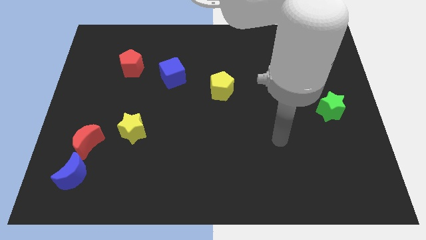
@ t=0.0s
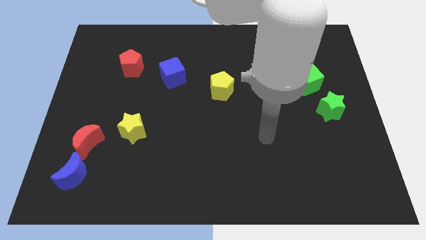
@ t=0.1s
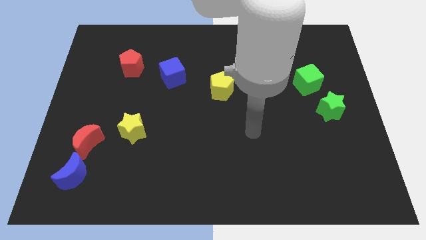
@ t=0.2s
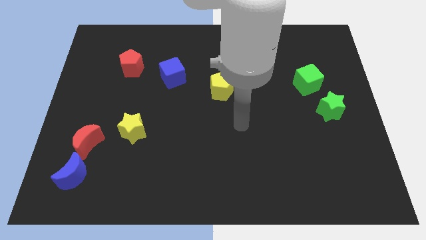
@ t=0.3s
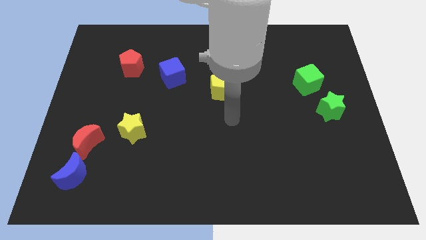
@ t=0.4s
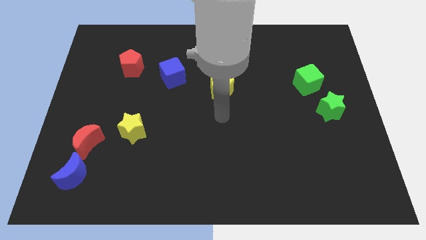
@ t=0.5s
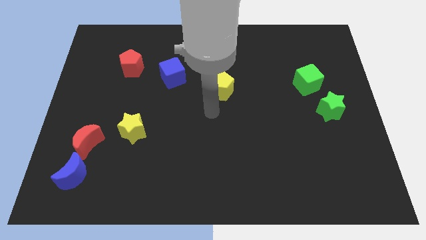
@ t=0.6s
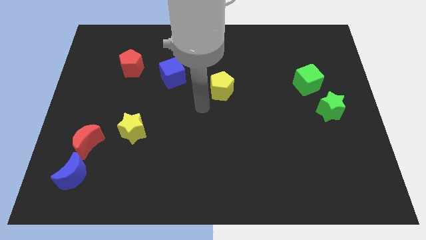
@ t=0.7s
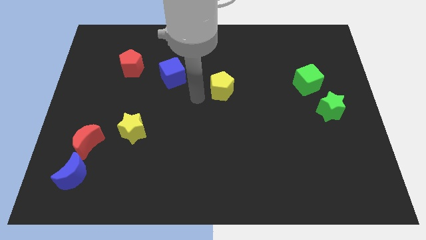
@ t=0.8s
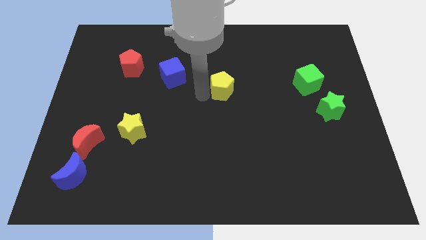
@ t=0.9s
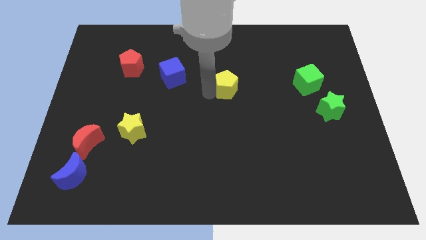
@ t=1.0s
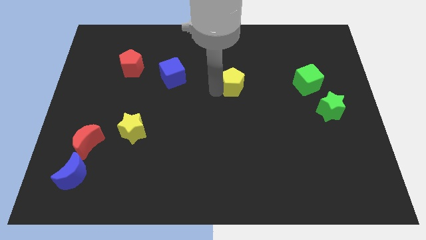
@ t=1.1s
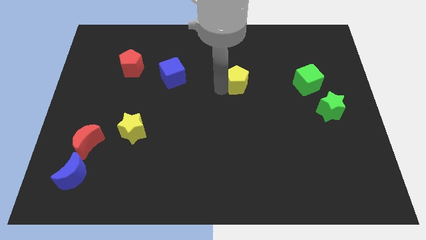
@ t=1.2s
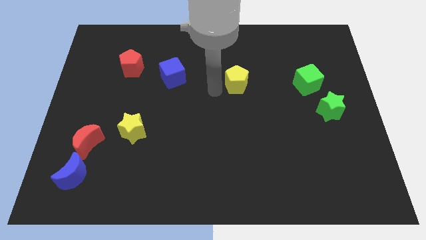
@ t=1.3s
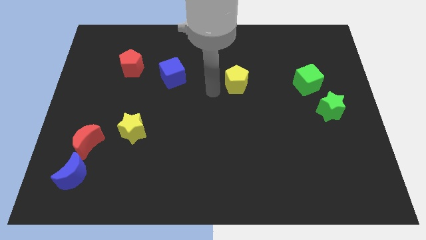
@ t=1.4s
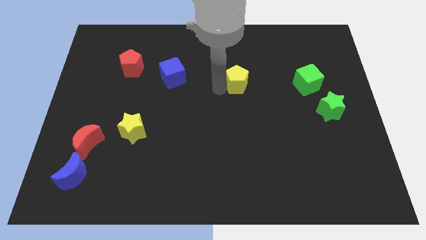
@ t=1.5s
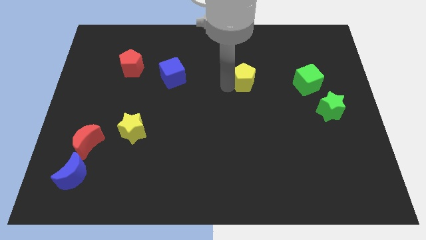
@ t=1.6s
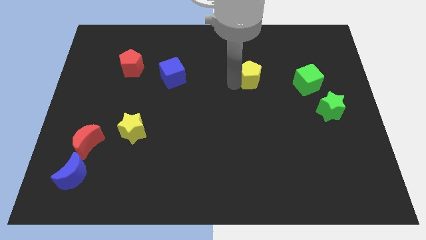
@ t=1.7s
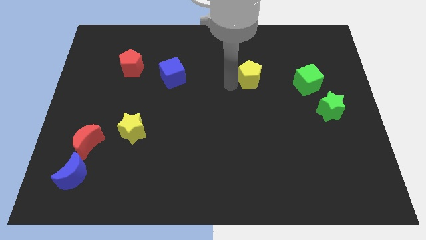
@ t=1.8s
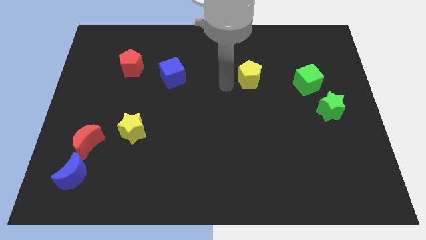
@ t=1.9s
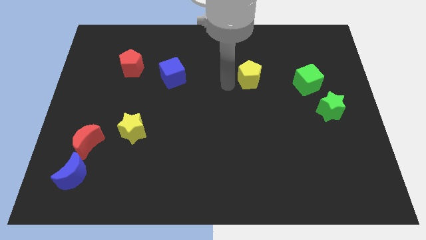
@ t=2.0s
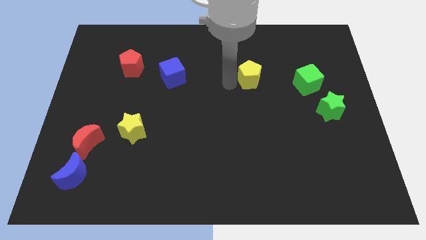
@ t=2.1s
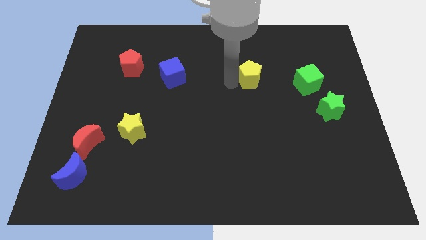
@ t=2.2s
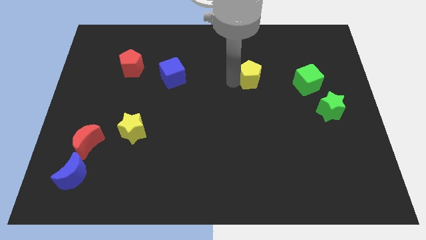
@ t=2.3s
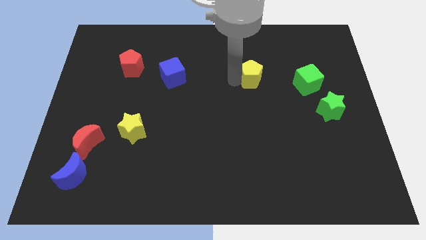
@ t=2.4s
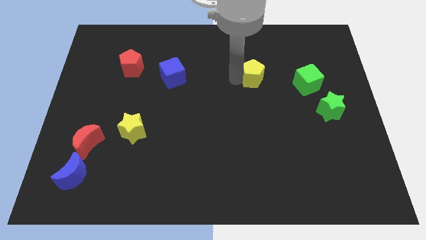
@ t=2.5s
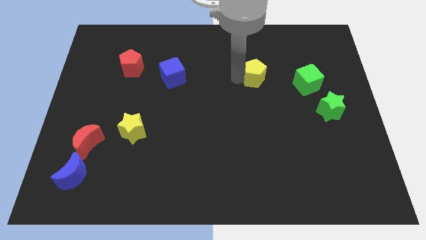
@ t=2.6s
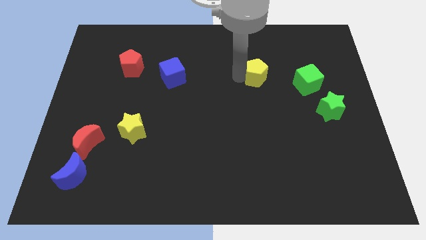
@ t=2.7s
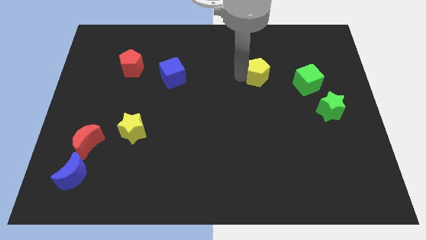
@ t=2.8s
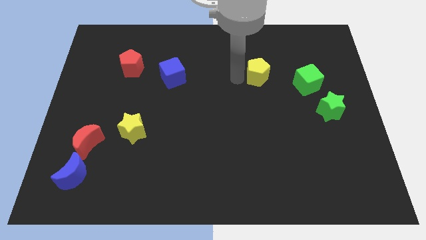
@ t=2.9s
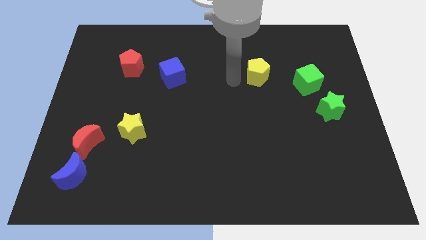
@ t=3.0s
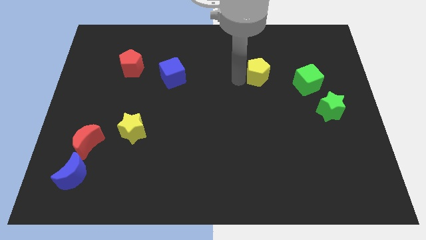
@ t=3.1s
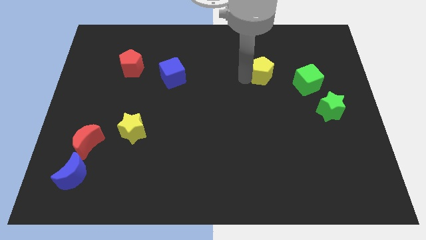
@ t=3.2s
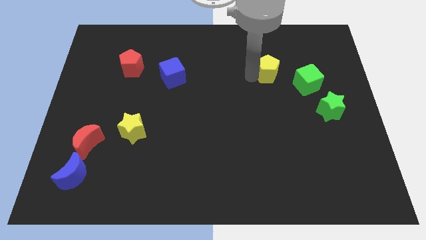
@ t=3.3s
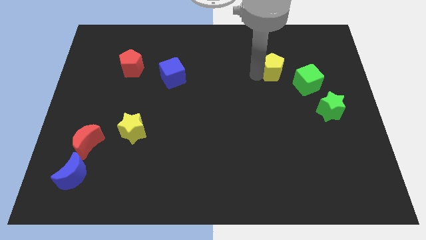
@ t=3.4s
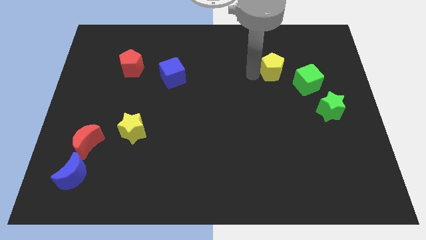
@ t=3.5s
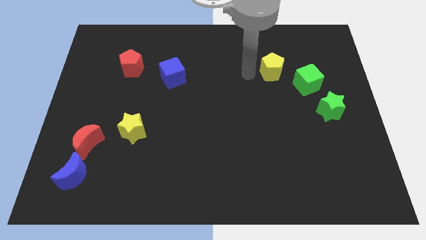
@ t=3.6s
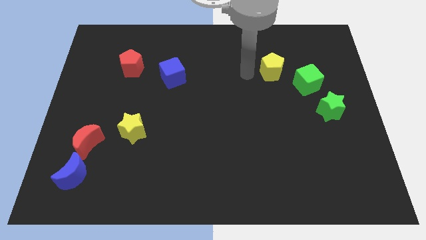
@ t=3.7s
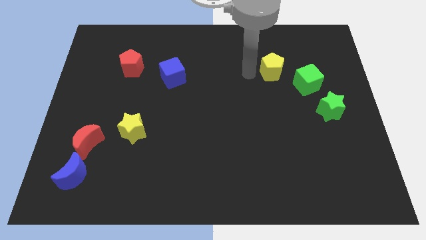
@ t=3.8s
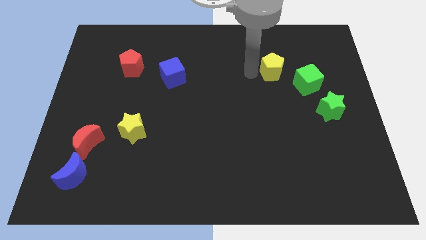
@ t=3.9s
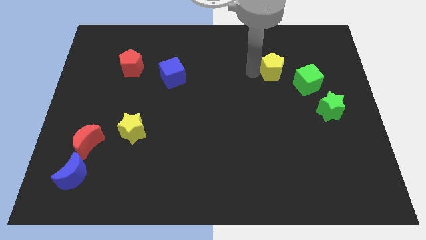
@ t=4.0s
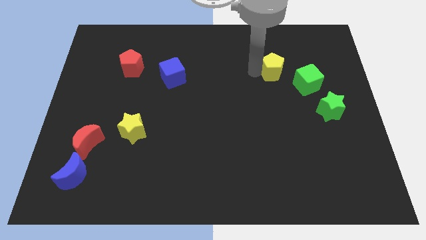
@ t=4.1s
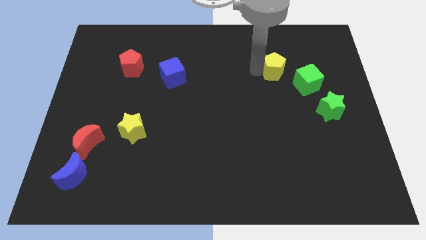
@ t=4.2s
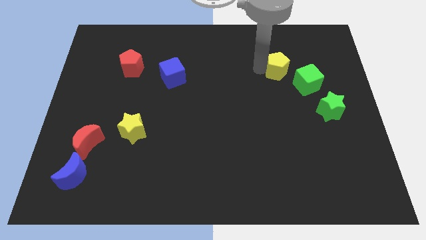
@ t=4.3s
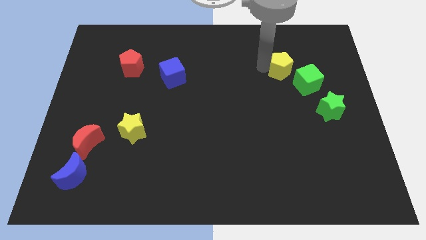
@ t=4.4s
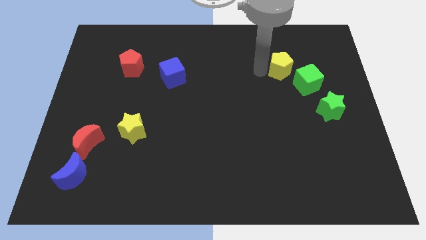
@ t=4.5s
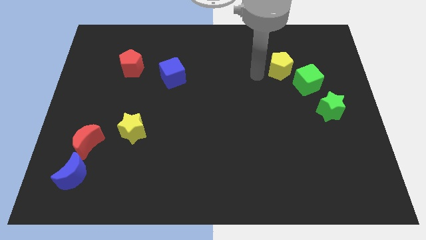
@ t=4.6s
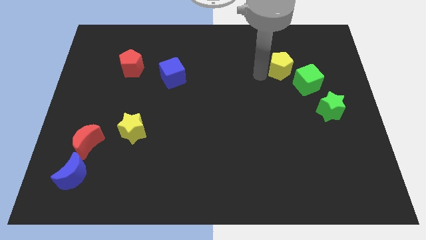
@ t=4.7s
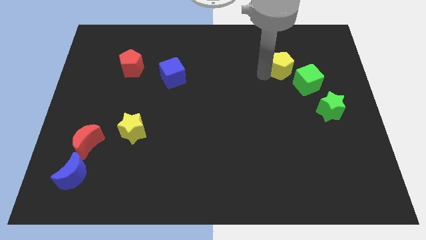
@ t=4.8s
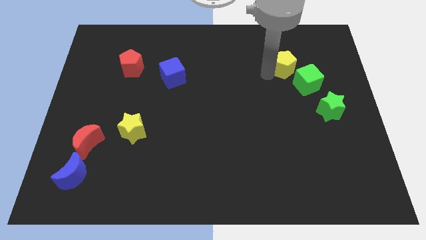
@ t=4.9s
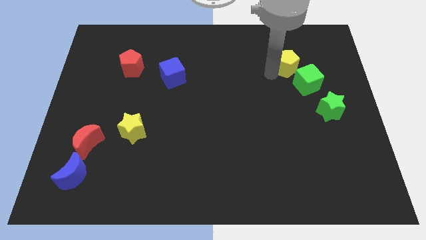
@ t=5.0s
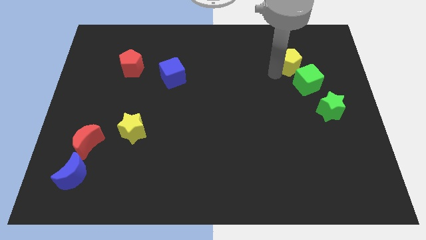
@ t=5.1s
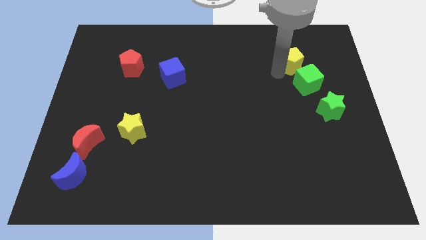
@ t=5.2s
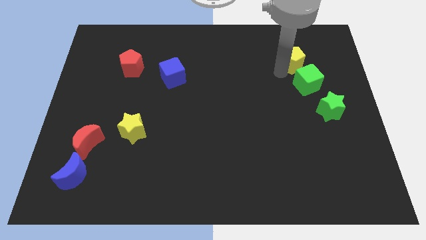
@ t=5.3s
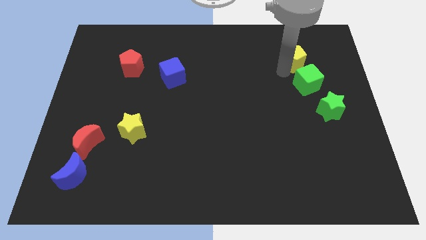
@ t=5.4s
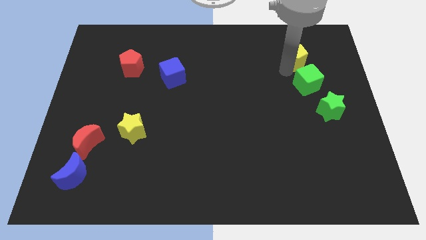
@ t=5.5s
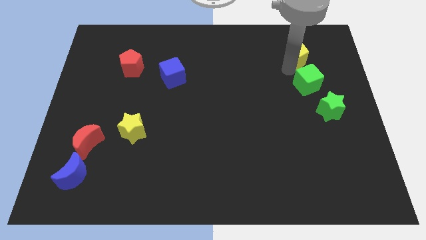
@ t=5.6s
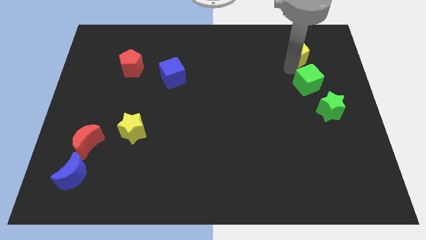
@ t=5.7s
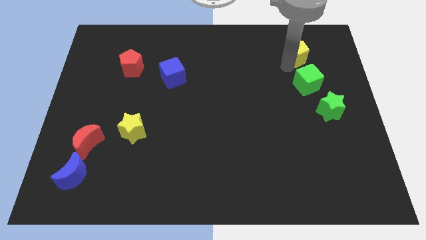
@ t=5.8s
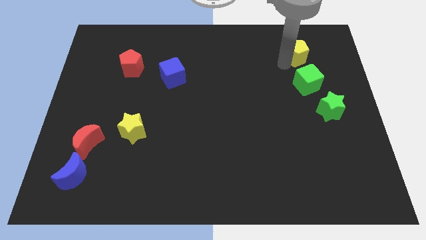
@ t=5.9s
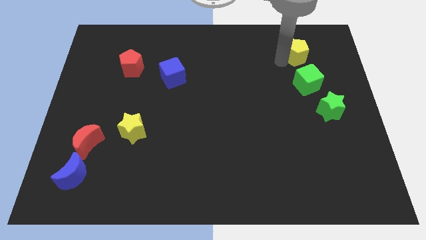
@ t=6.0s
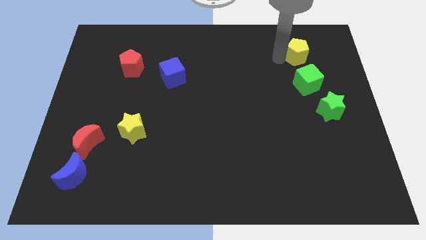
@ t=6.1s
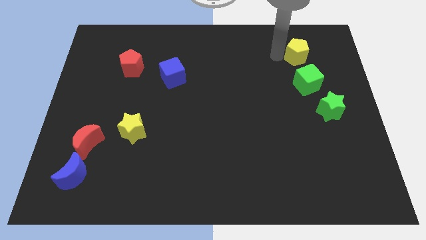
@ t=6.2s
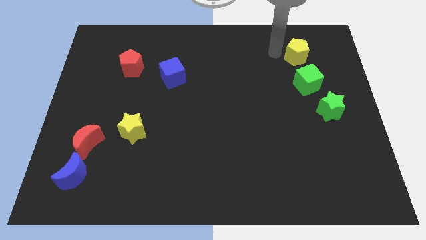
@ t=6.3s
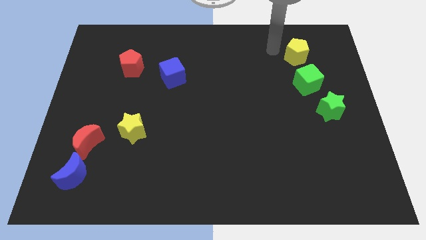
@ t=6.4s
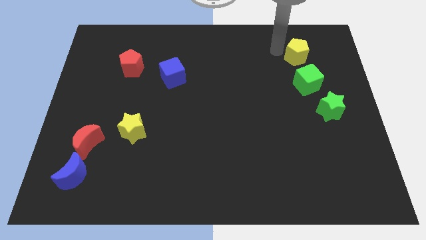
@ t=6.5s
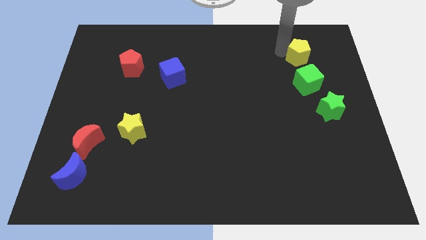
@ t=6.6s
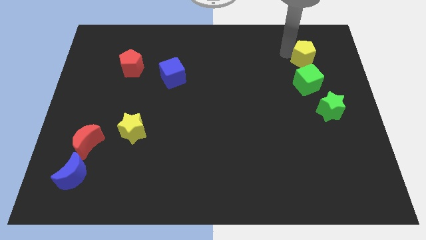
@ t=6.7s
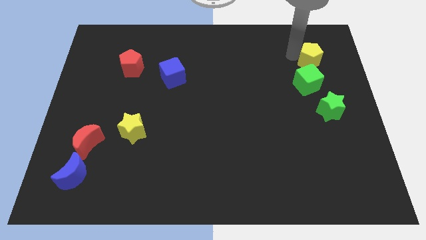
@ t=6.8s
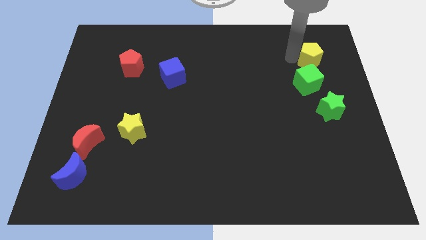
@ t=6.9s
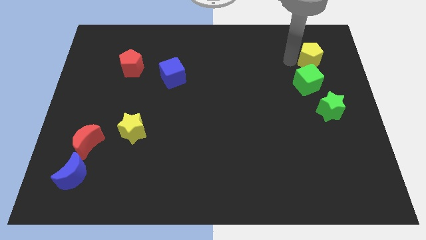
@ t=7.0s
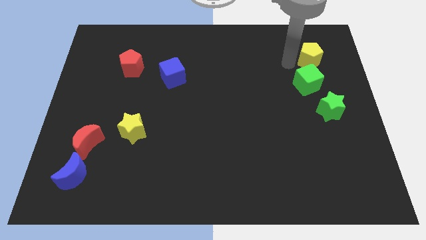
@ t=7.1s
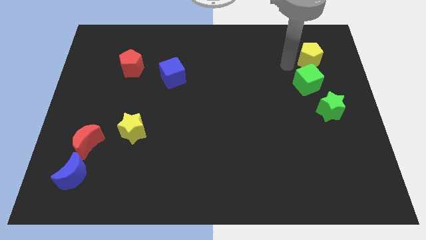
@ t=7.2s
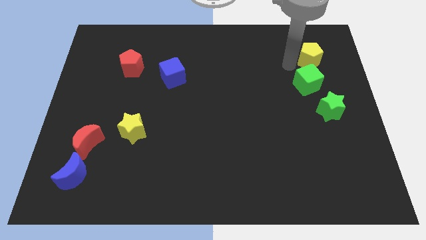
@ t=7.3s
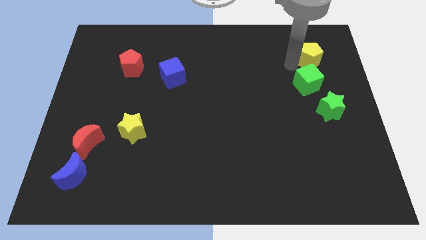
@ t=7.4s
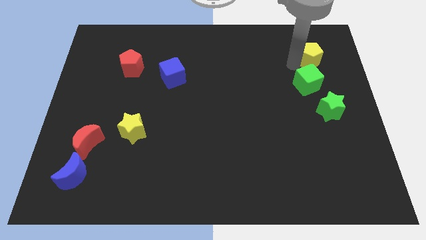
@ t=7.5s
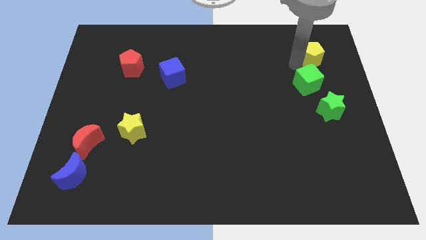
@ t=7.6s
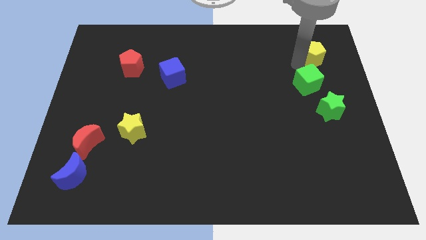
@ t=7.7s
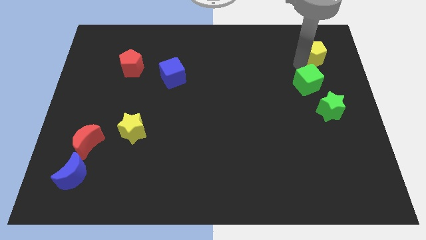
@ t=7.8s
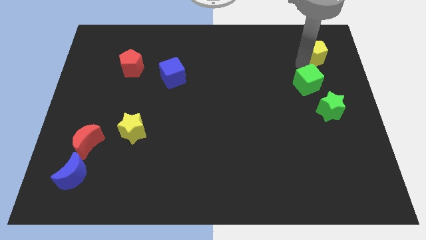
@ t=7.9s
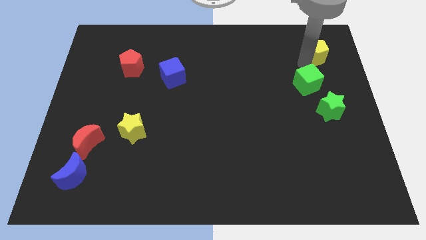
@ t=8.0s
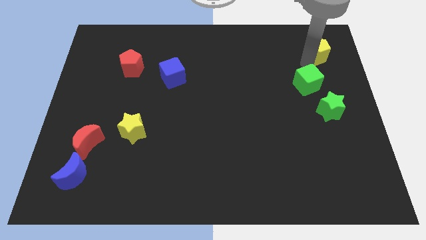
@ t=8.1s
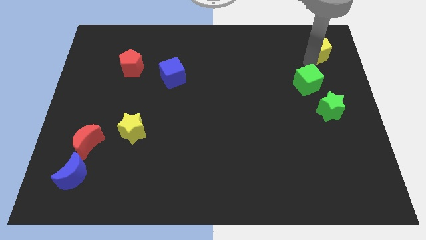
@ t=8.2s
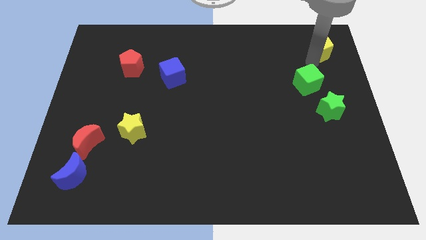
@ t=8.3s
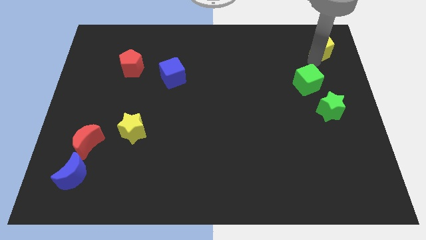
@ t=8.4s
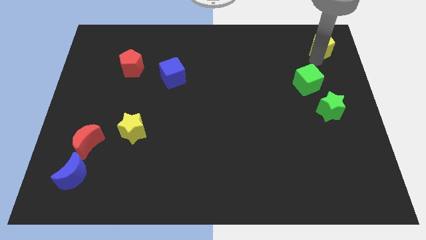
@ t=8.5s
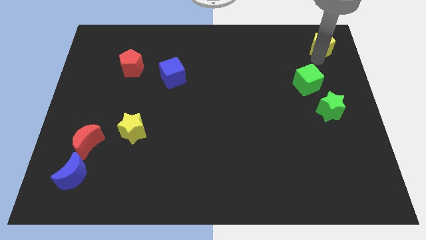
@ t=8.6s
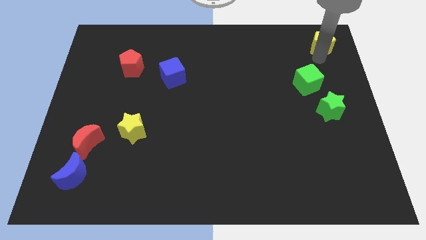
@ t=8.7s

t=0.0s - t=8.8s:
push the yellow pentagon to the upper right corner
